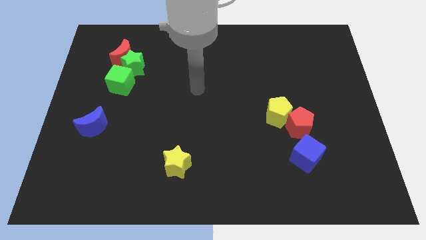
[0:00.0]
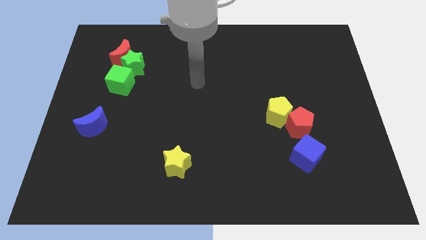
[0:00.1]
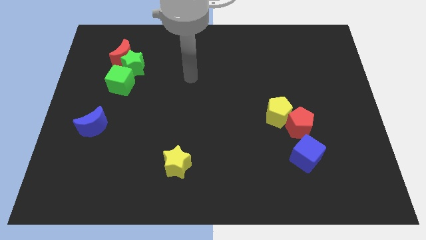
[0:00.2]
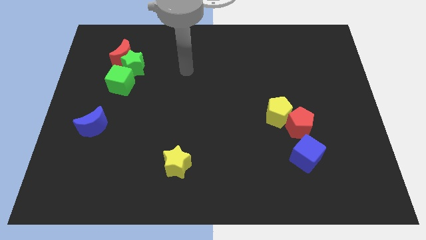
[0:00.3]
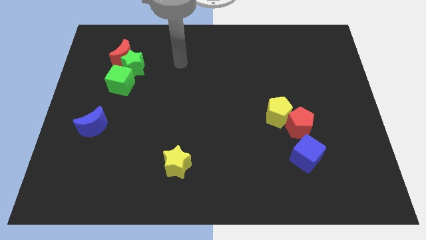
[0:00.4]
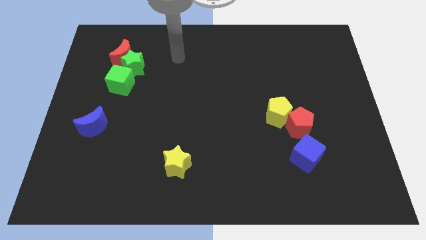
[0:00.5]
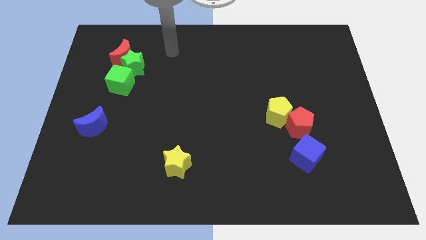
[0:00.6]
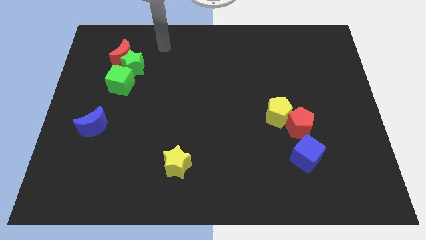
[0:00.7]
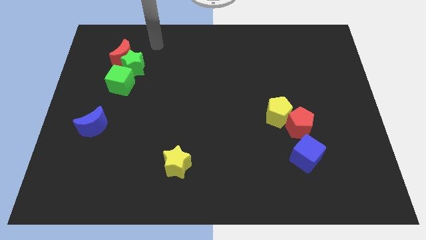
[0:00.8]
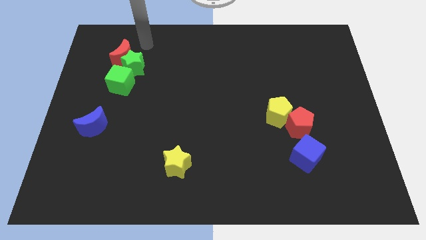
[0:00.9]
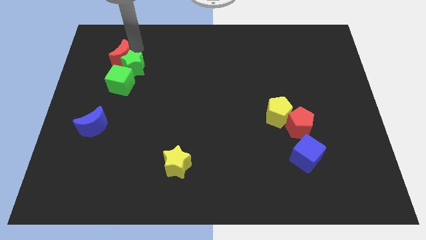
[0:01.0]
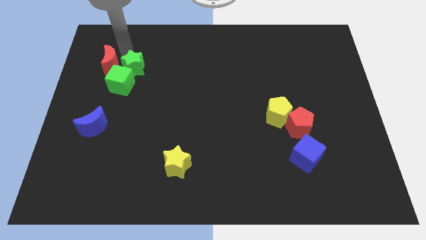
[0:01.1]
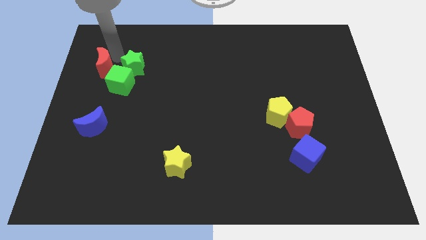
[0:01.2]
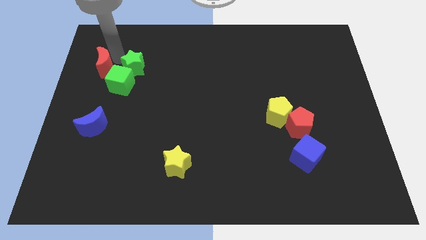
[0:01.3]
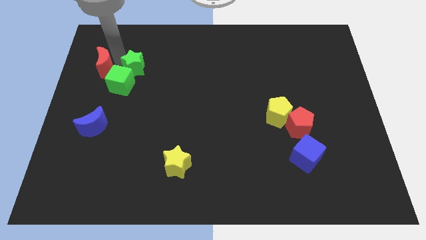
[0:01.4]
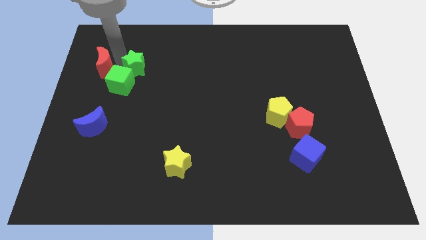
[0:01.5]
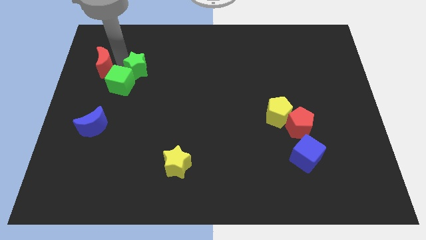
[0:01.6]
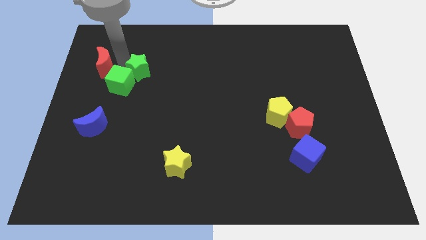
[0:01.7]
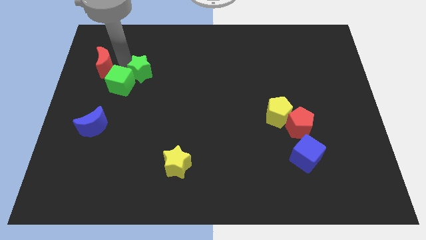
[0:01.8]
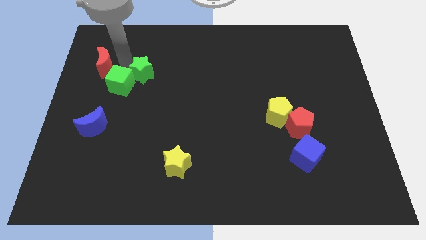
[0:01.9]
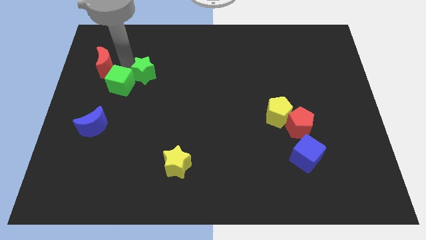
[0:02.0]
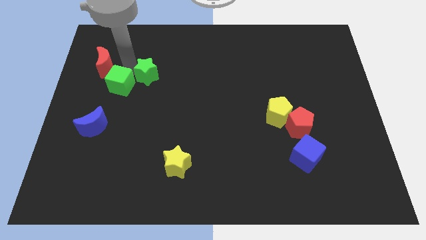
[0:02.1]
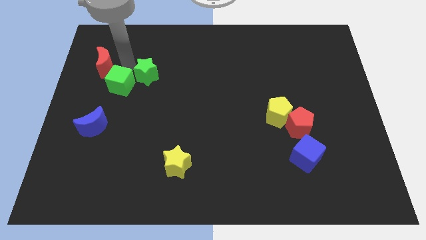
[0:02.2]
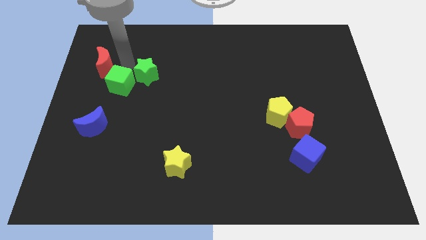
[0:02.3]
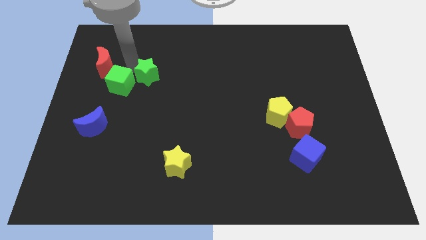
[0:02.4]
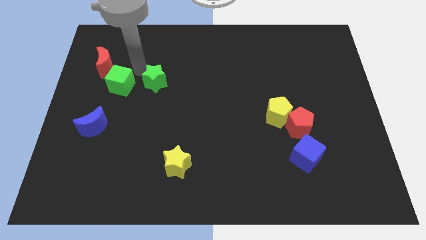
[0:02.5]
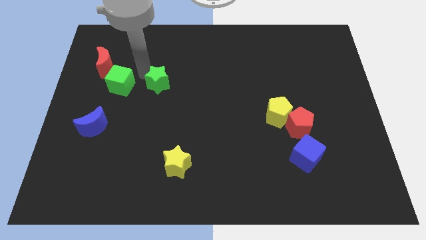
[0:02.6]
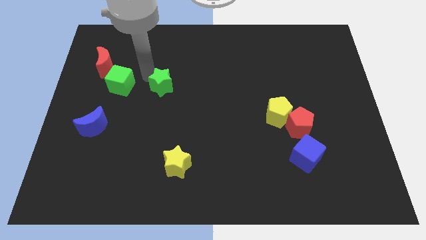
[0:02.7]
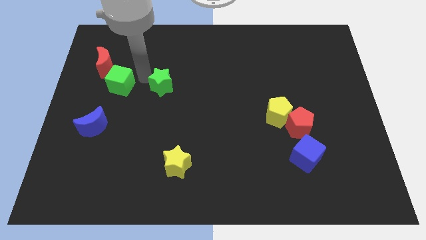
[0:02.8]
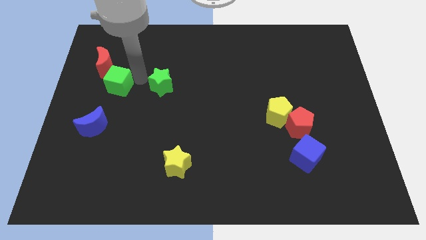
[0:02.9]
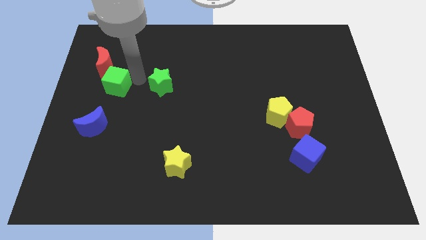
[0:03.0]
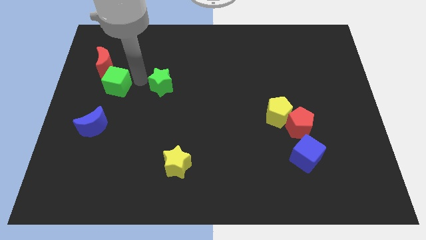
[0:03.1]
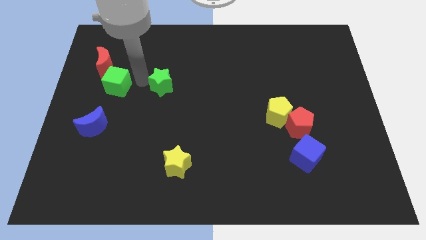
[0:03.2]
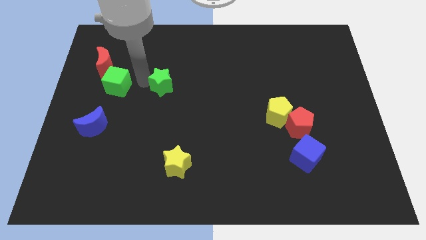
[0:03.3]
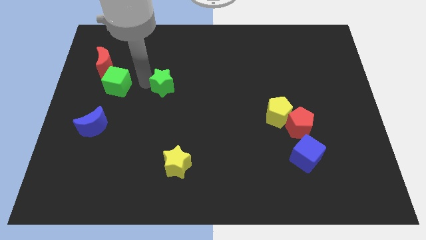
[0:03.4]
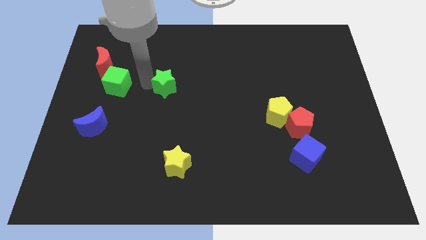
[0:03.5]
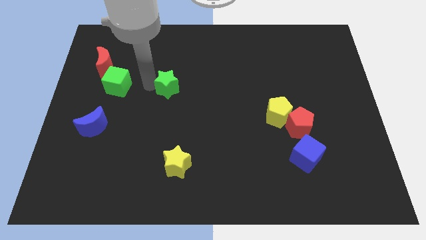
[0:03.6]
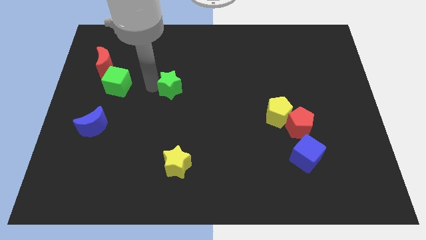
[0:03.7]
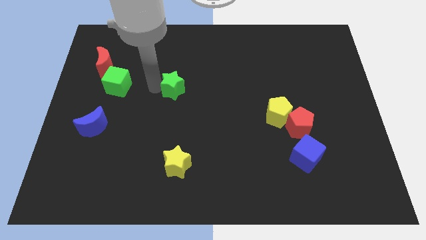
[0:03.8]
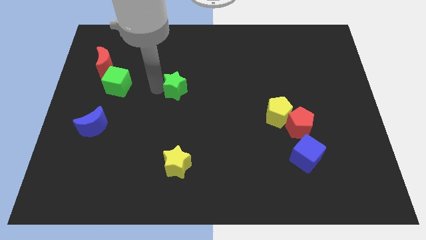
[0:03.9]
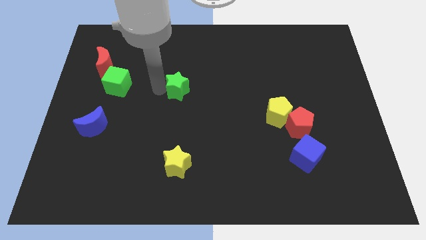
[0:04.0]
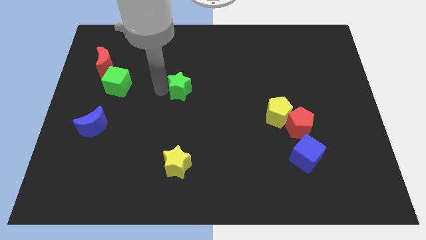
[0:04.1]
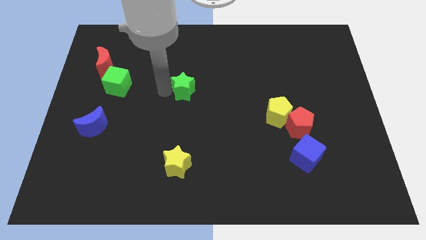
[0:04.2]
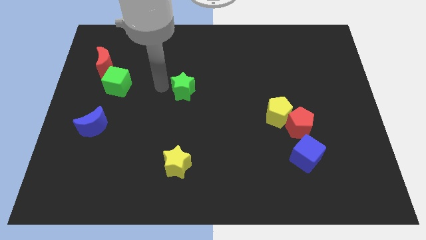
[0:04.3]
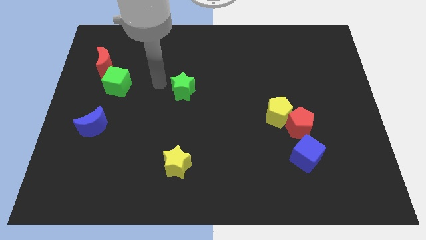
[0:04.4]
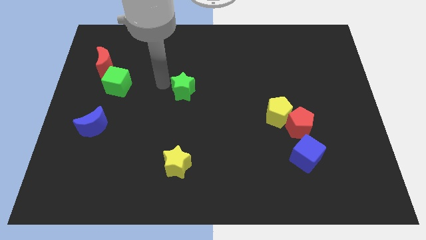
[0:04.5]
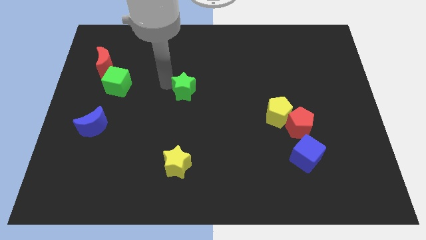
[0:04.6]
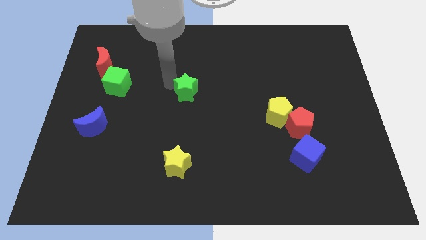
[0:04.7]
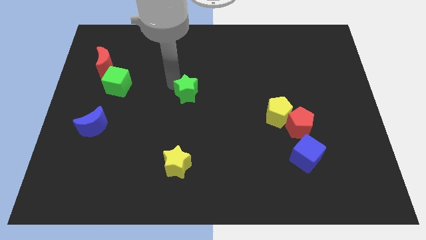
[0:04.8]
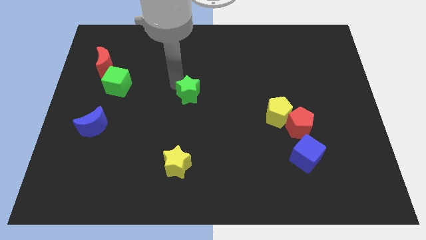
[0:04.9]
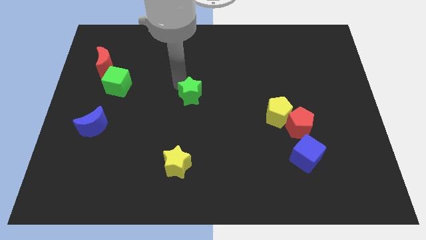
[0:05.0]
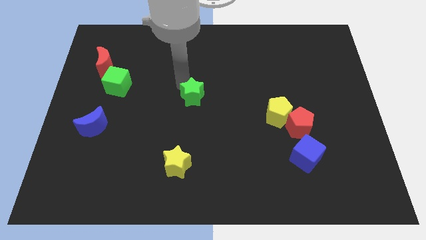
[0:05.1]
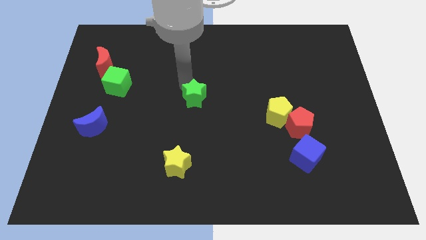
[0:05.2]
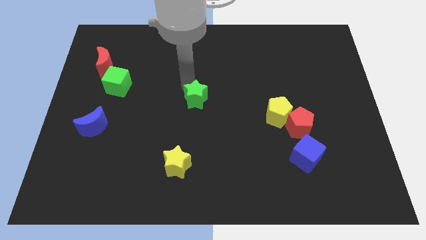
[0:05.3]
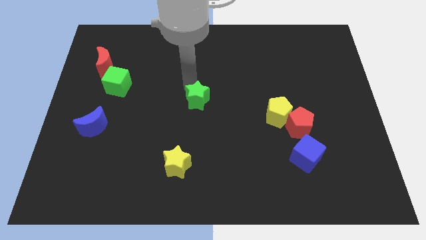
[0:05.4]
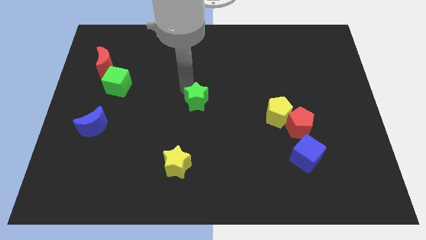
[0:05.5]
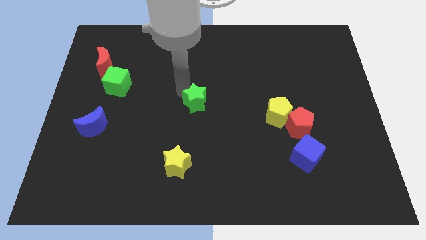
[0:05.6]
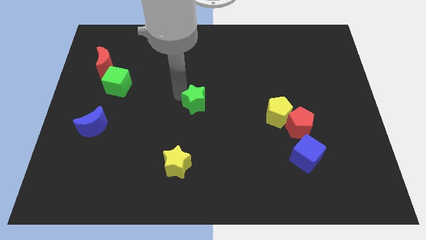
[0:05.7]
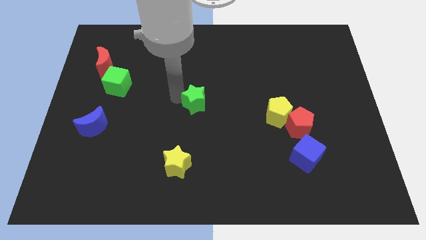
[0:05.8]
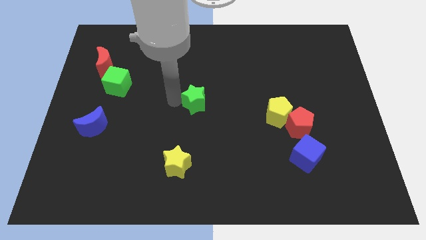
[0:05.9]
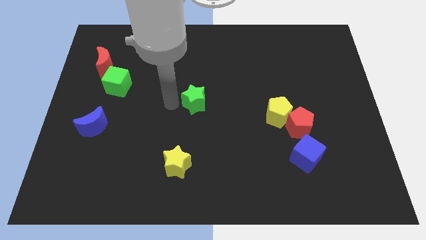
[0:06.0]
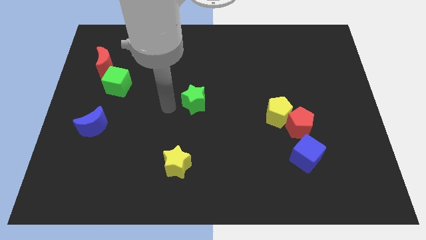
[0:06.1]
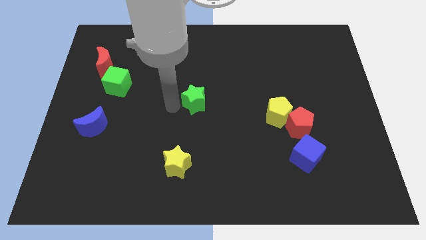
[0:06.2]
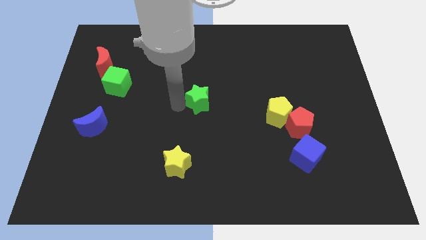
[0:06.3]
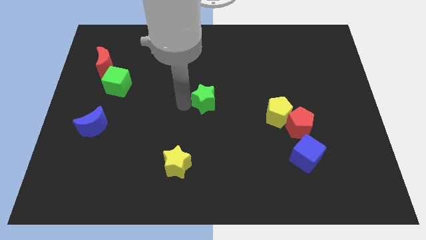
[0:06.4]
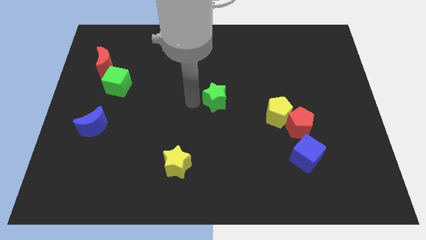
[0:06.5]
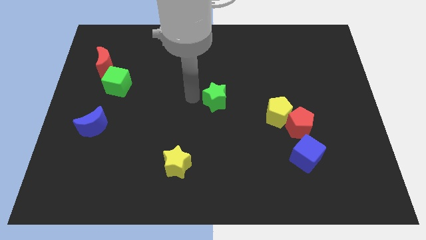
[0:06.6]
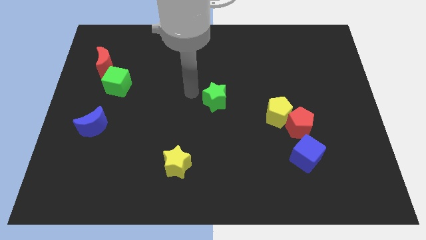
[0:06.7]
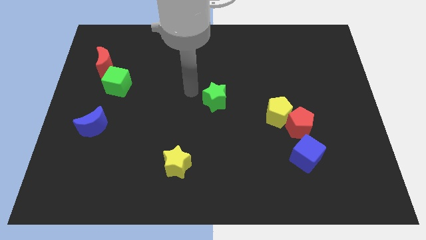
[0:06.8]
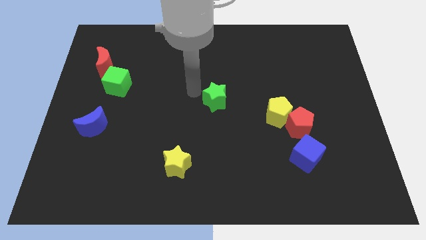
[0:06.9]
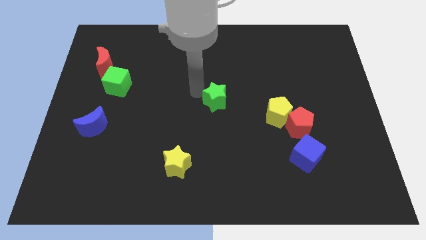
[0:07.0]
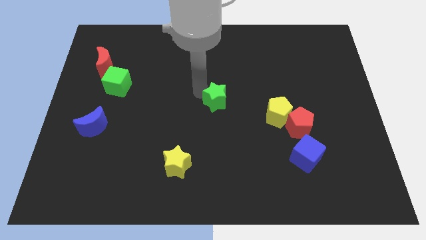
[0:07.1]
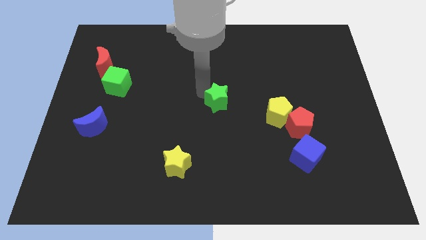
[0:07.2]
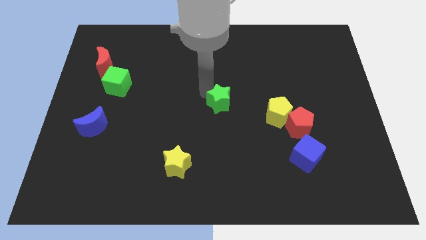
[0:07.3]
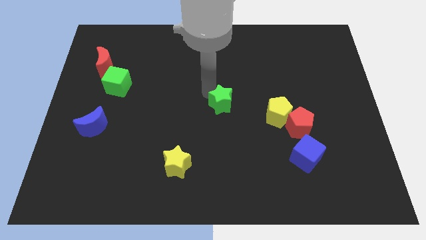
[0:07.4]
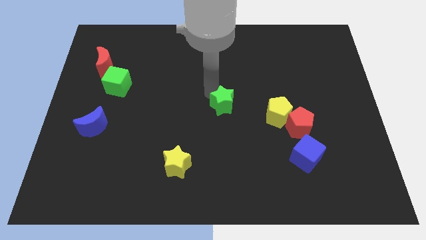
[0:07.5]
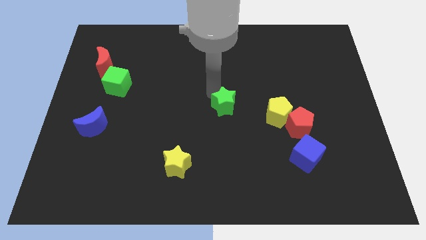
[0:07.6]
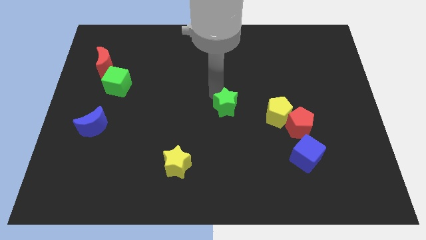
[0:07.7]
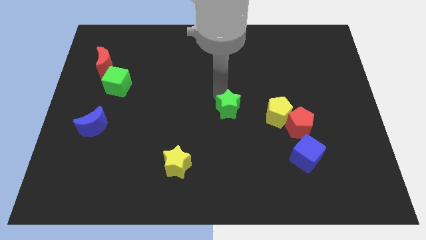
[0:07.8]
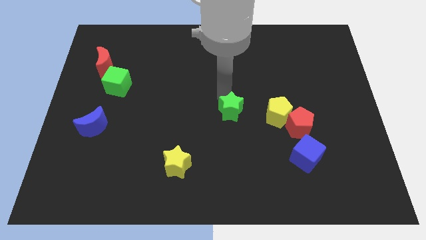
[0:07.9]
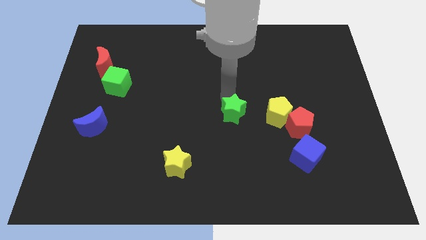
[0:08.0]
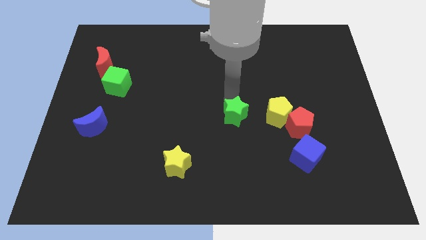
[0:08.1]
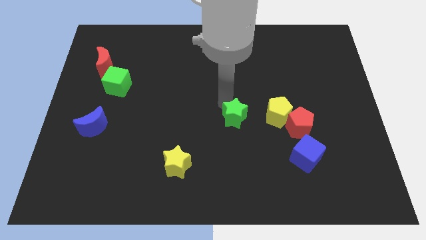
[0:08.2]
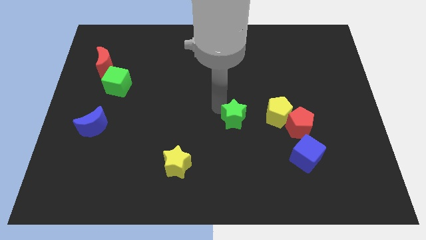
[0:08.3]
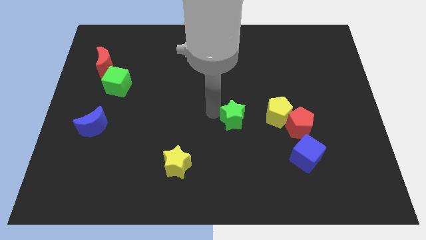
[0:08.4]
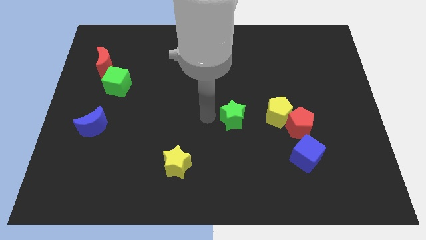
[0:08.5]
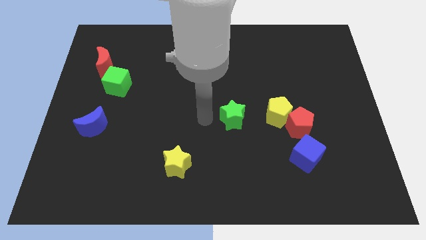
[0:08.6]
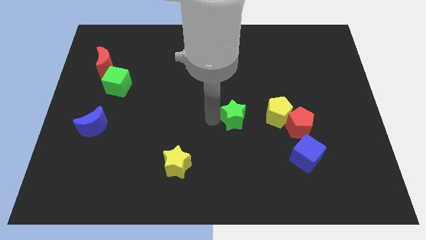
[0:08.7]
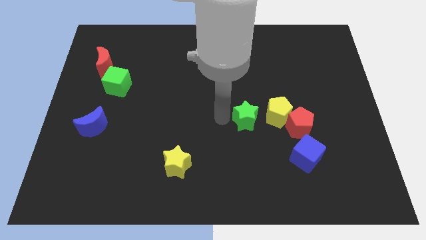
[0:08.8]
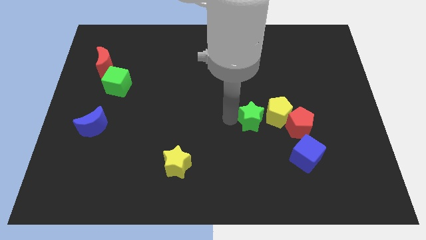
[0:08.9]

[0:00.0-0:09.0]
move the green star towards the yellow pentagon
